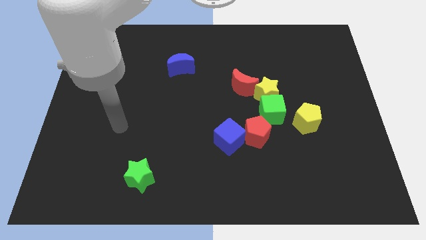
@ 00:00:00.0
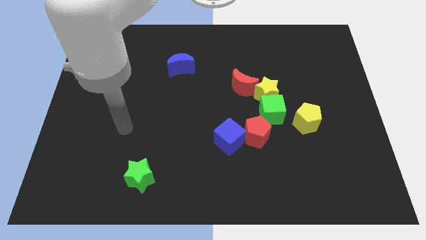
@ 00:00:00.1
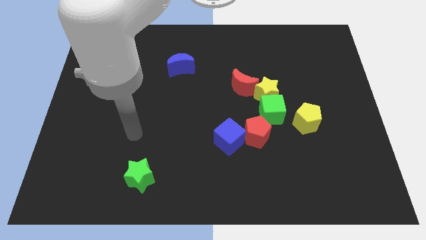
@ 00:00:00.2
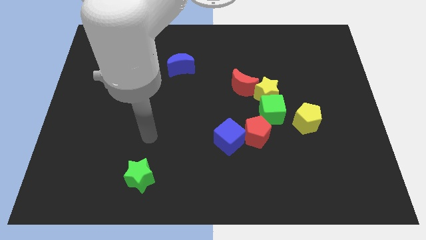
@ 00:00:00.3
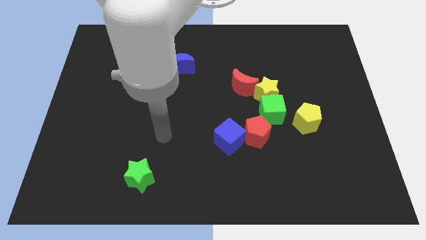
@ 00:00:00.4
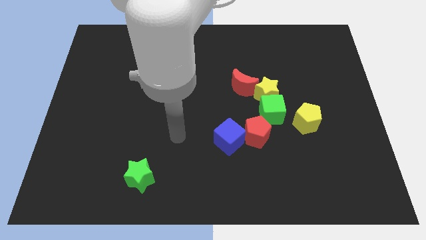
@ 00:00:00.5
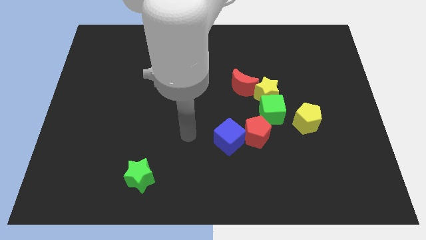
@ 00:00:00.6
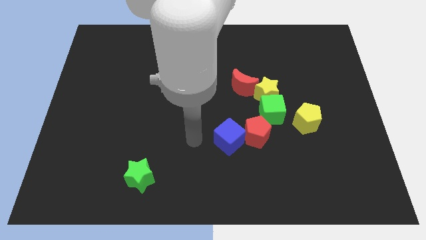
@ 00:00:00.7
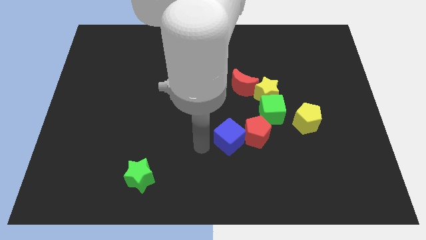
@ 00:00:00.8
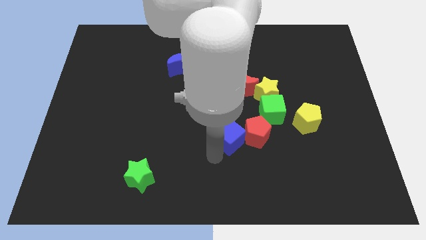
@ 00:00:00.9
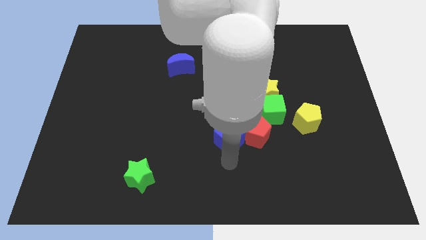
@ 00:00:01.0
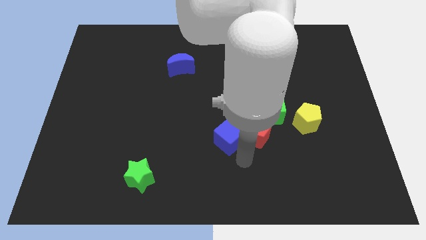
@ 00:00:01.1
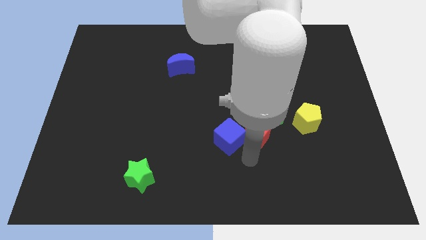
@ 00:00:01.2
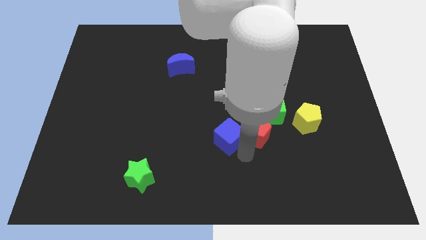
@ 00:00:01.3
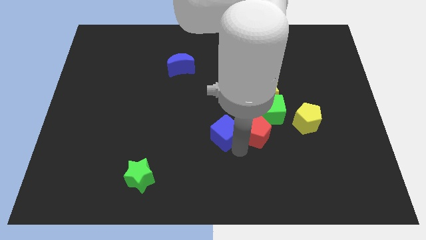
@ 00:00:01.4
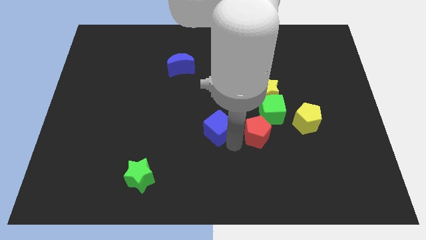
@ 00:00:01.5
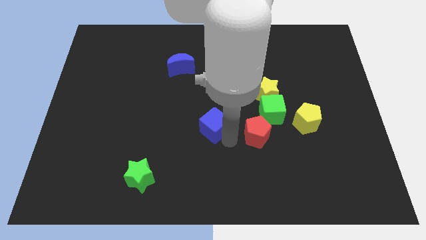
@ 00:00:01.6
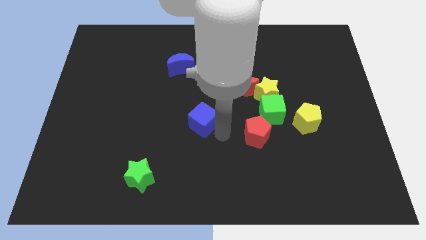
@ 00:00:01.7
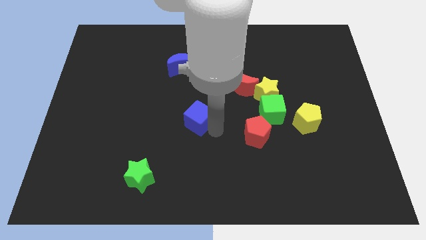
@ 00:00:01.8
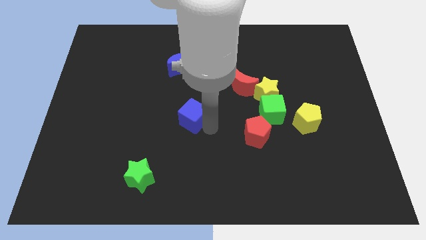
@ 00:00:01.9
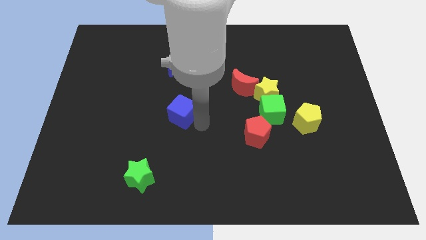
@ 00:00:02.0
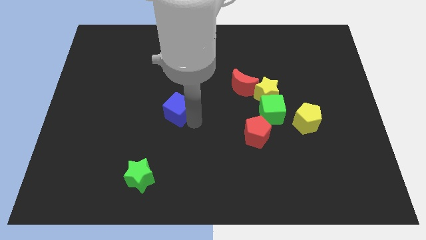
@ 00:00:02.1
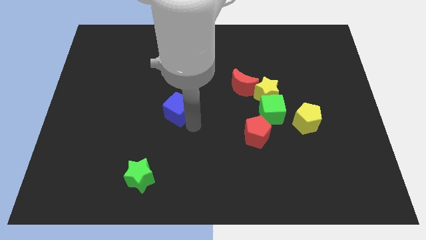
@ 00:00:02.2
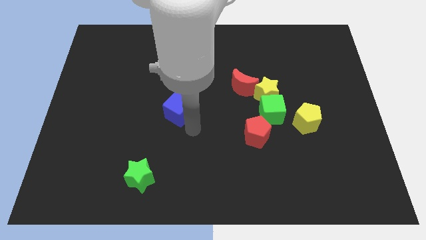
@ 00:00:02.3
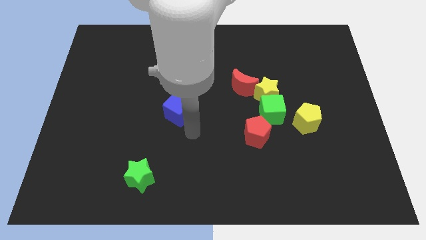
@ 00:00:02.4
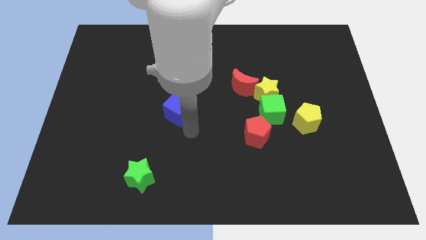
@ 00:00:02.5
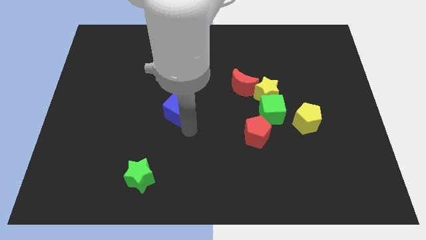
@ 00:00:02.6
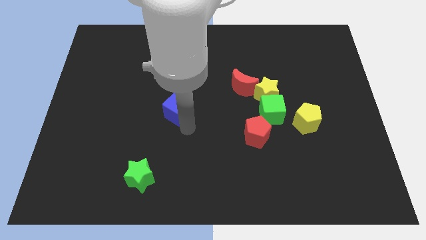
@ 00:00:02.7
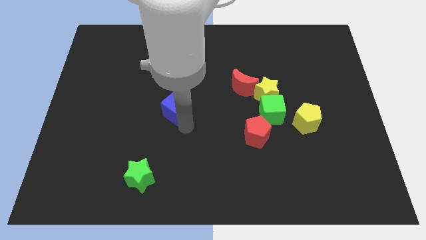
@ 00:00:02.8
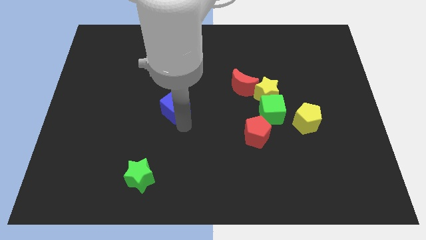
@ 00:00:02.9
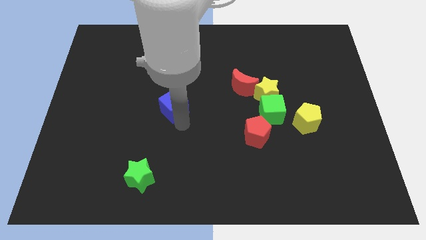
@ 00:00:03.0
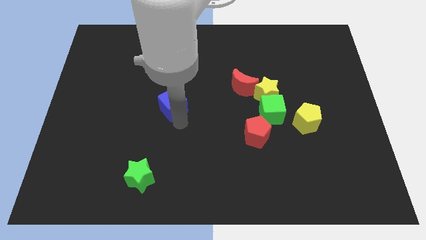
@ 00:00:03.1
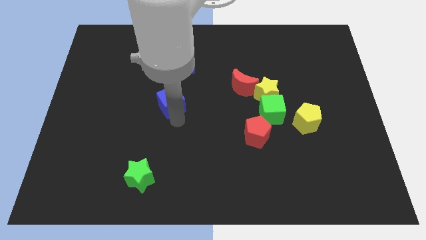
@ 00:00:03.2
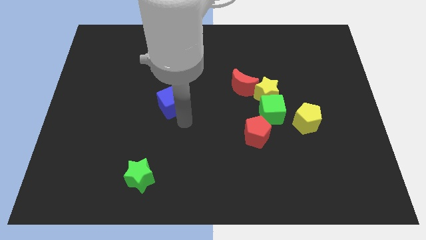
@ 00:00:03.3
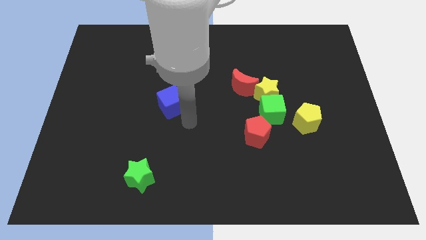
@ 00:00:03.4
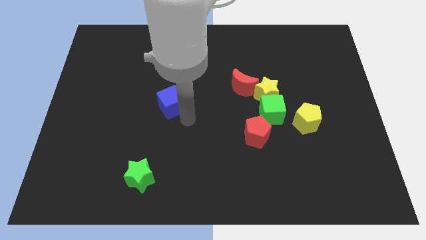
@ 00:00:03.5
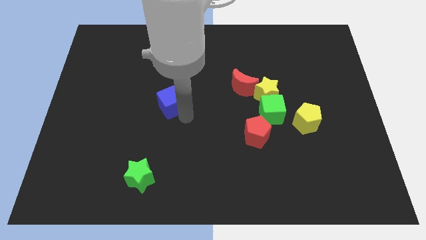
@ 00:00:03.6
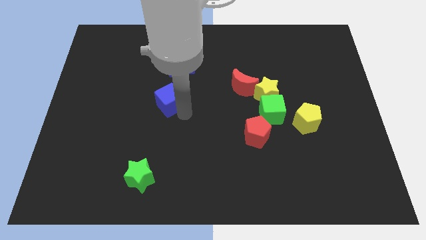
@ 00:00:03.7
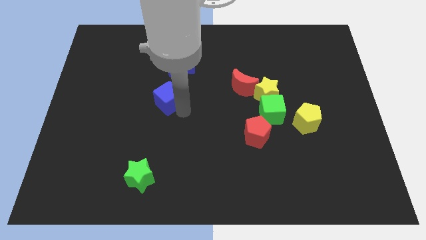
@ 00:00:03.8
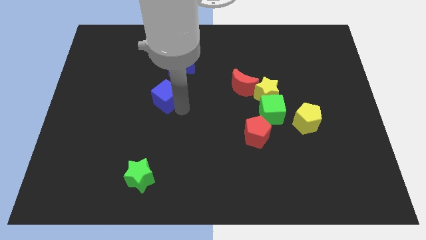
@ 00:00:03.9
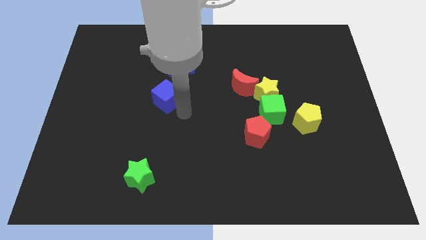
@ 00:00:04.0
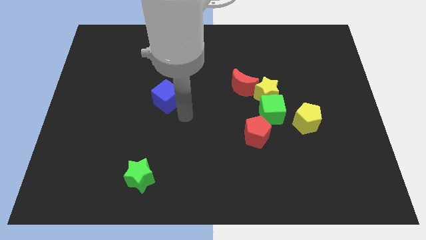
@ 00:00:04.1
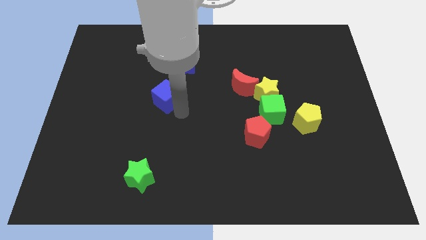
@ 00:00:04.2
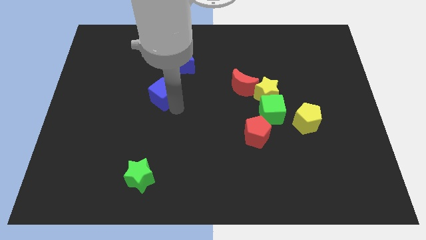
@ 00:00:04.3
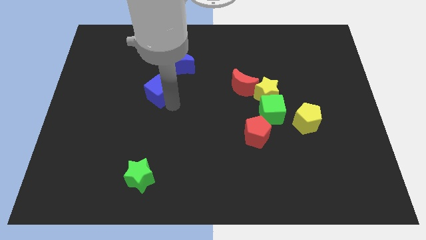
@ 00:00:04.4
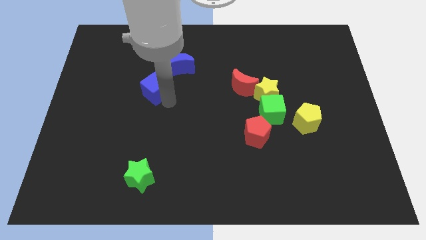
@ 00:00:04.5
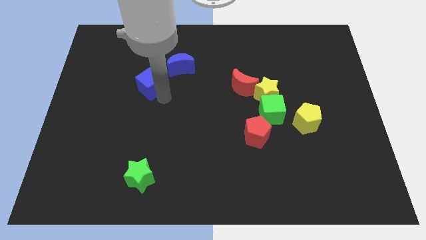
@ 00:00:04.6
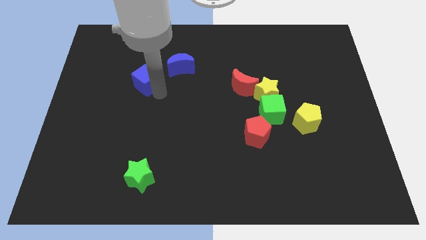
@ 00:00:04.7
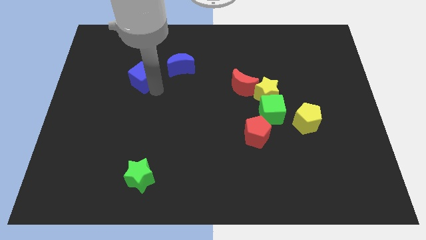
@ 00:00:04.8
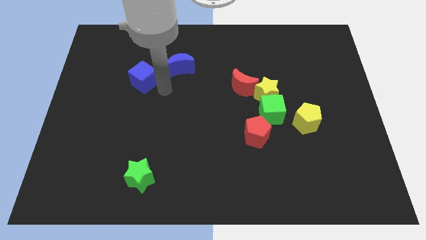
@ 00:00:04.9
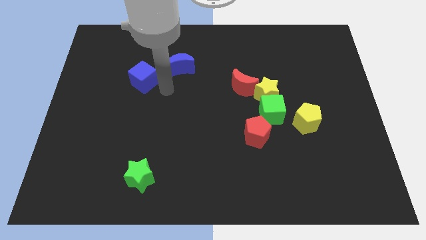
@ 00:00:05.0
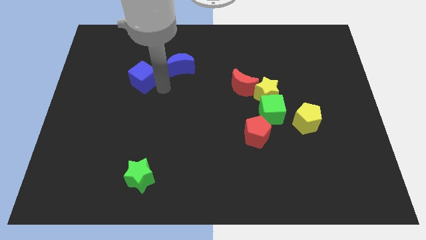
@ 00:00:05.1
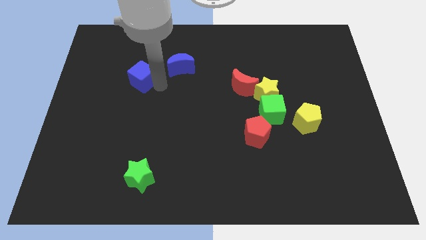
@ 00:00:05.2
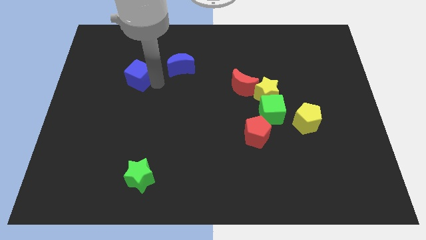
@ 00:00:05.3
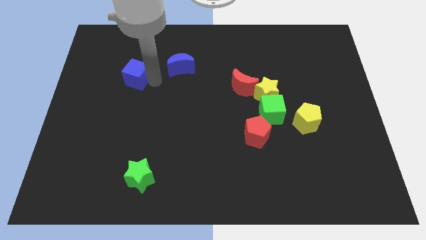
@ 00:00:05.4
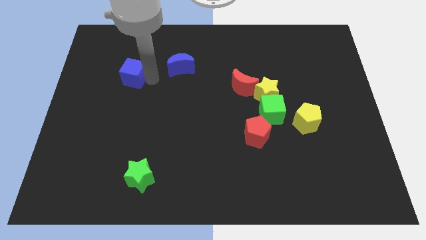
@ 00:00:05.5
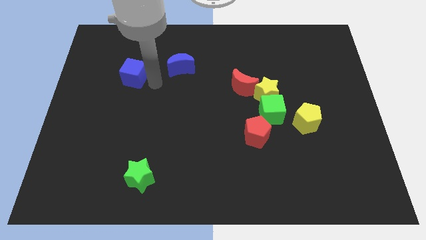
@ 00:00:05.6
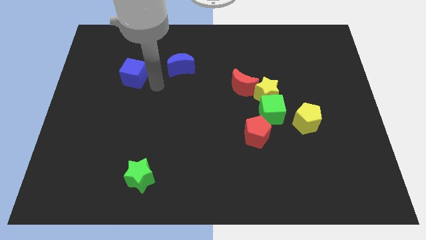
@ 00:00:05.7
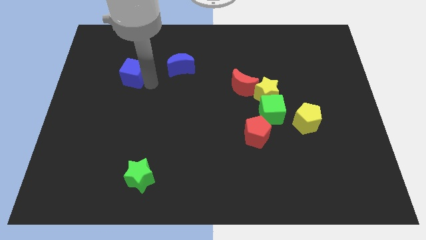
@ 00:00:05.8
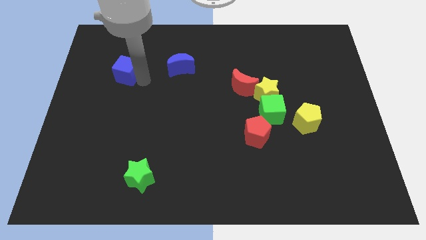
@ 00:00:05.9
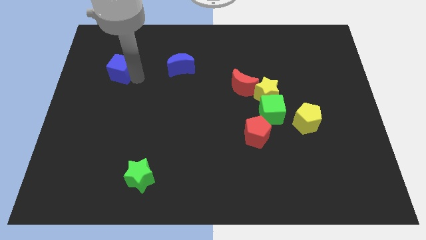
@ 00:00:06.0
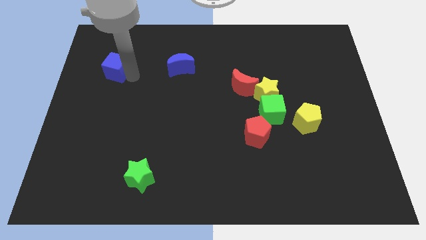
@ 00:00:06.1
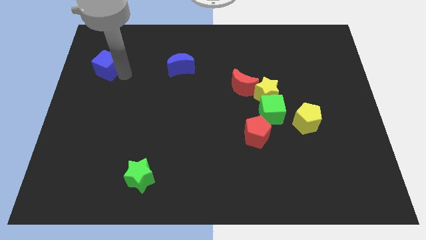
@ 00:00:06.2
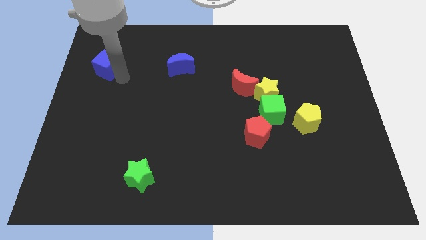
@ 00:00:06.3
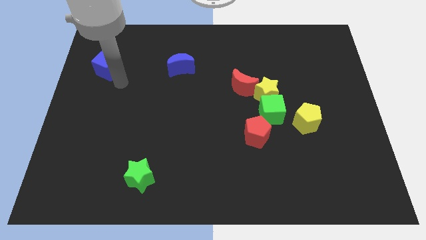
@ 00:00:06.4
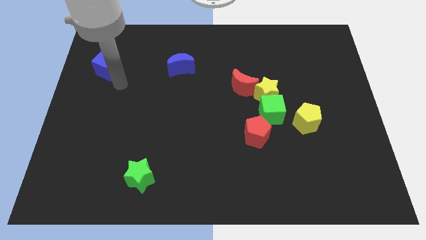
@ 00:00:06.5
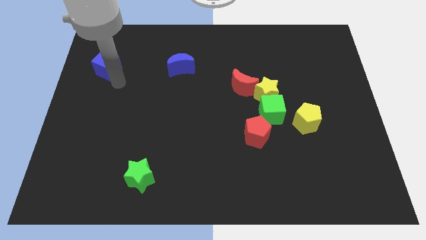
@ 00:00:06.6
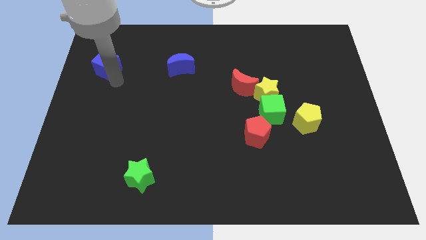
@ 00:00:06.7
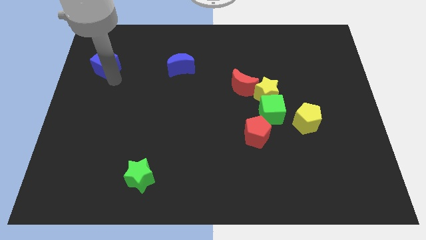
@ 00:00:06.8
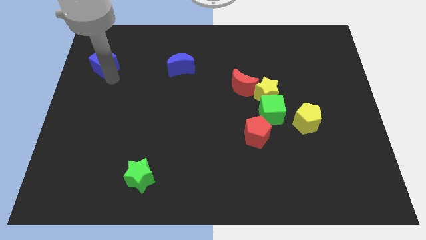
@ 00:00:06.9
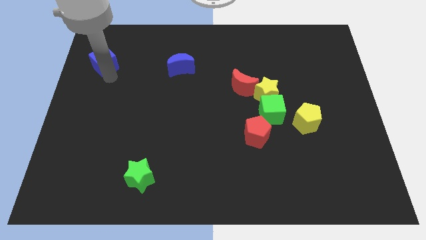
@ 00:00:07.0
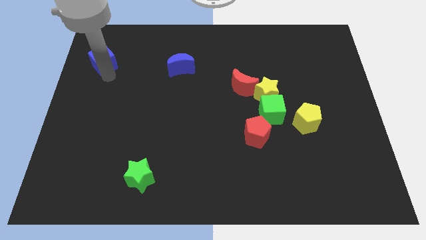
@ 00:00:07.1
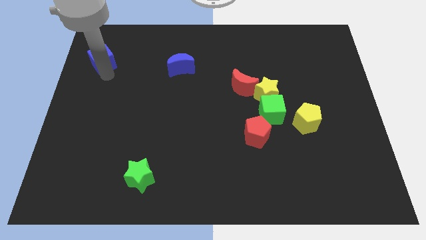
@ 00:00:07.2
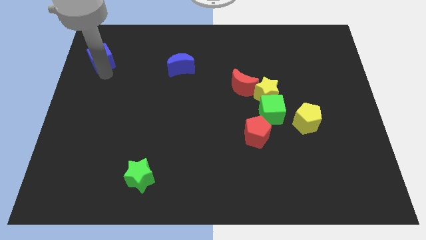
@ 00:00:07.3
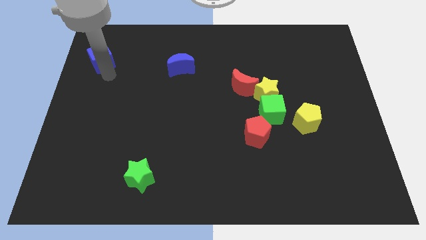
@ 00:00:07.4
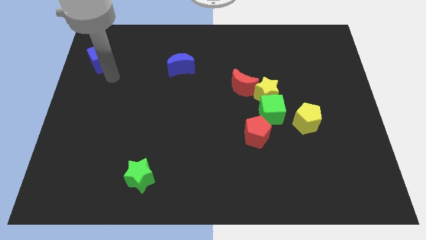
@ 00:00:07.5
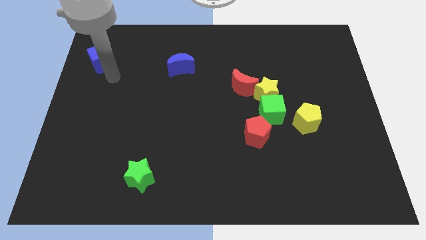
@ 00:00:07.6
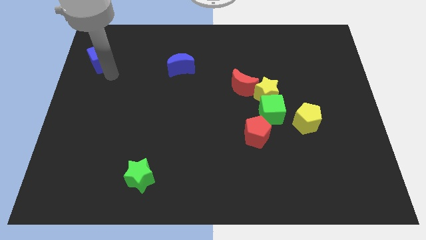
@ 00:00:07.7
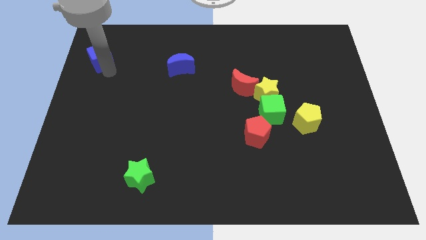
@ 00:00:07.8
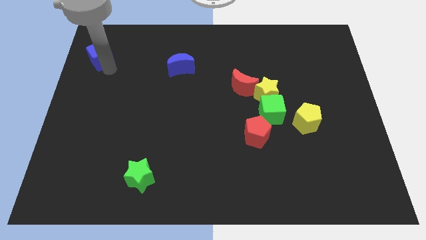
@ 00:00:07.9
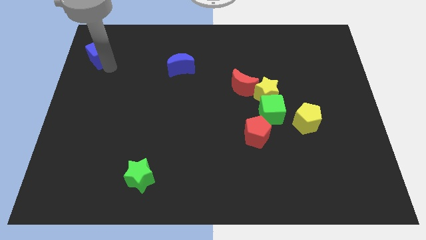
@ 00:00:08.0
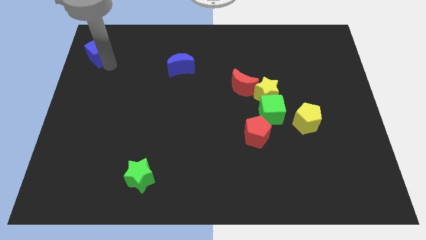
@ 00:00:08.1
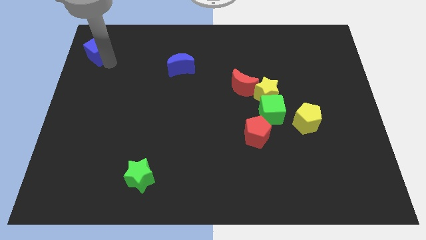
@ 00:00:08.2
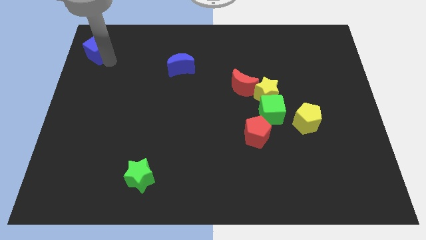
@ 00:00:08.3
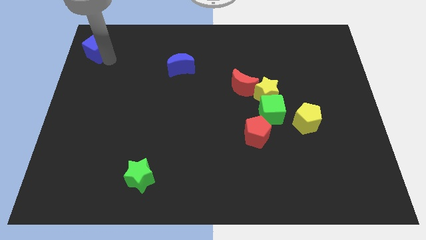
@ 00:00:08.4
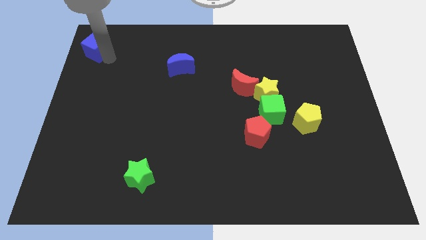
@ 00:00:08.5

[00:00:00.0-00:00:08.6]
push the blue cube to the upper left corner
